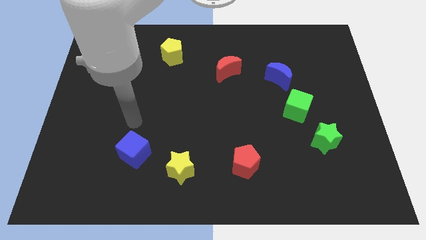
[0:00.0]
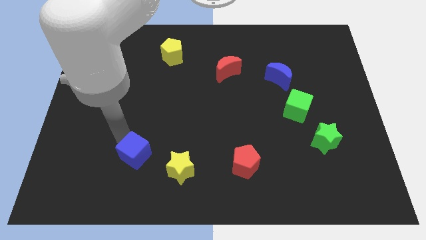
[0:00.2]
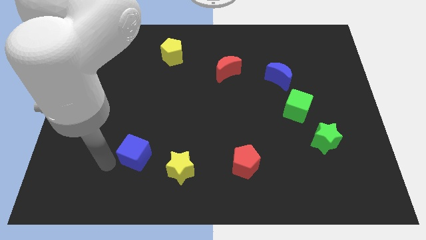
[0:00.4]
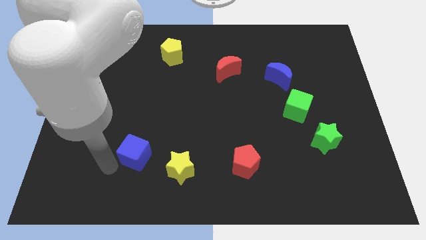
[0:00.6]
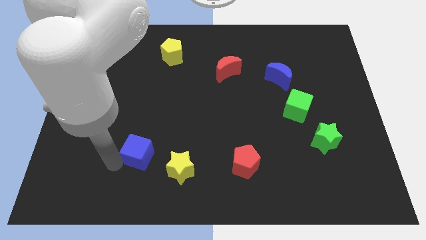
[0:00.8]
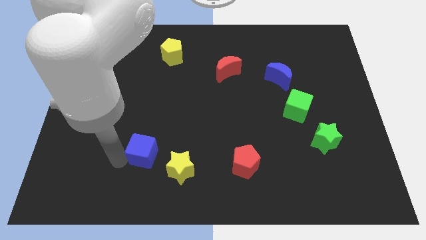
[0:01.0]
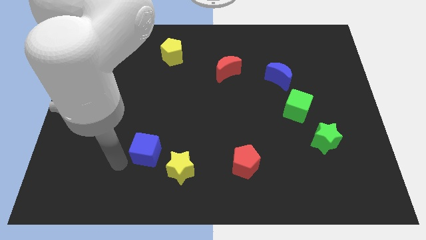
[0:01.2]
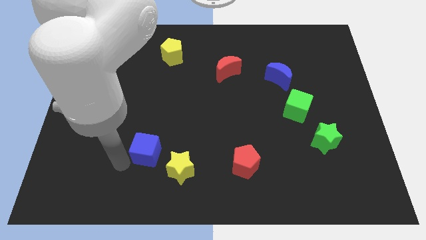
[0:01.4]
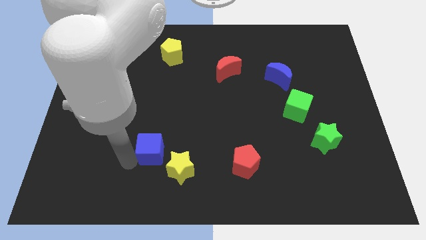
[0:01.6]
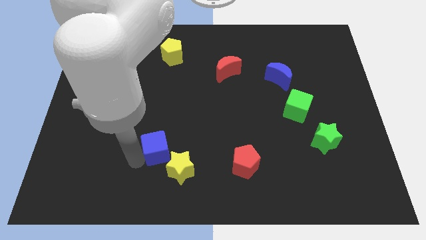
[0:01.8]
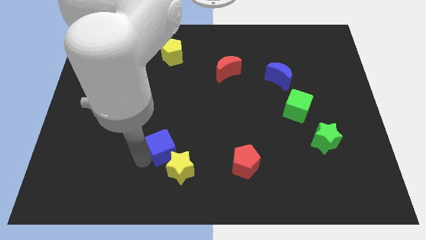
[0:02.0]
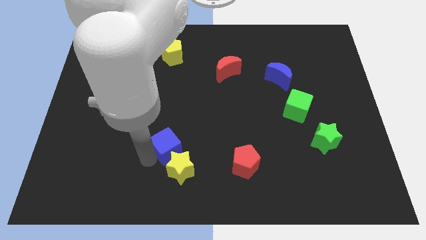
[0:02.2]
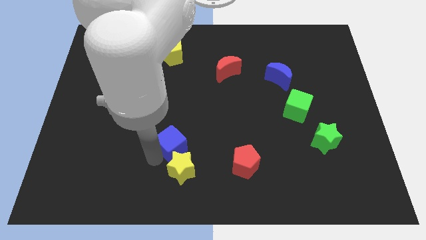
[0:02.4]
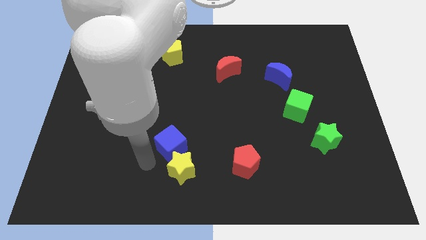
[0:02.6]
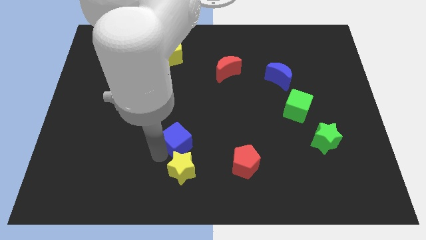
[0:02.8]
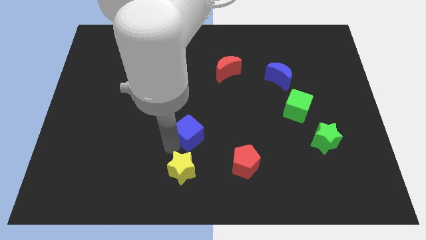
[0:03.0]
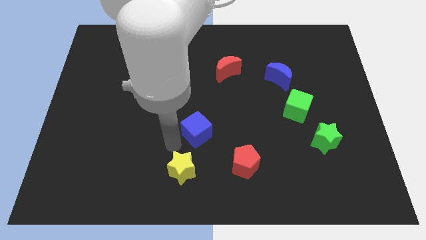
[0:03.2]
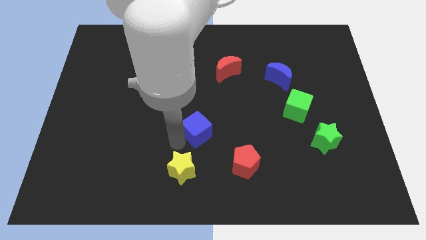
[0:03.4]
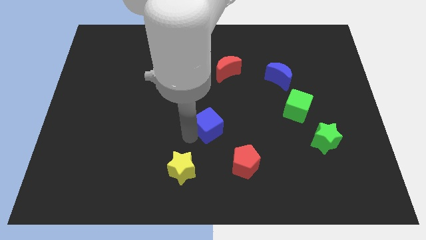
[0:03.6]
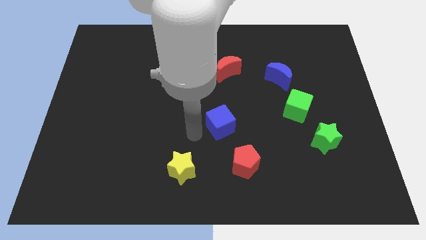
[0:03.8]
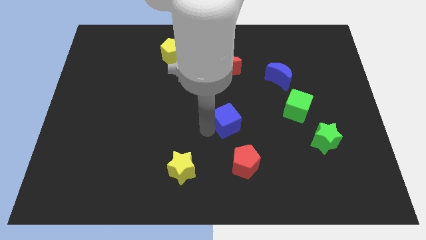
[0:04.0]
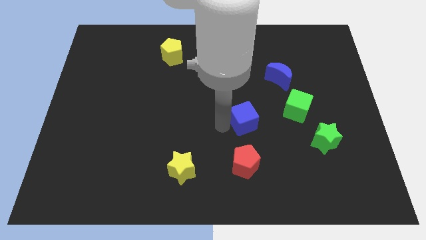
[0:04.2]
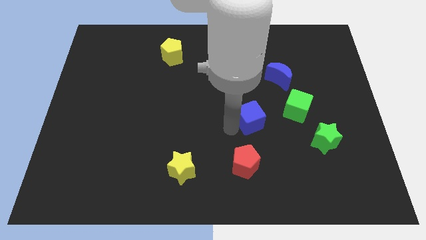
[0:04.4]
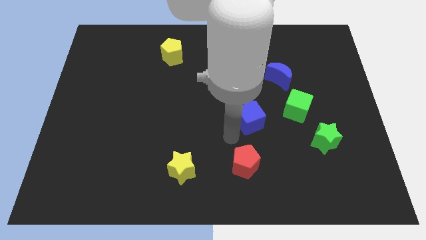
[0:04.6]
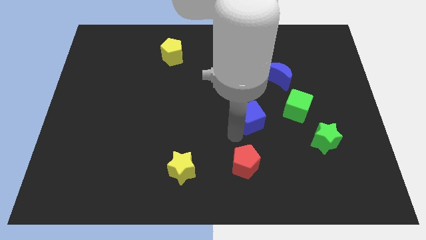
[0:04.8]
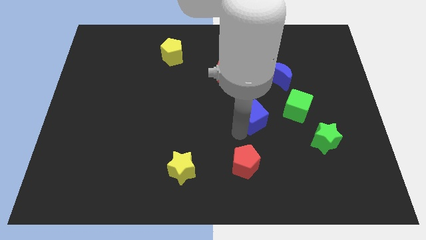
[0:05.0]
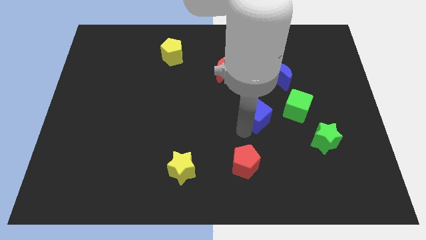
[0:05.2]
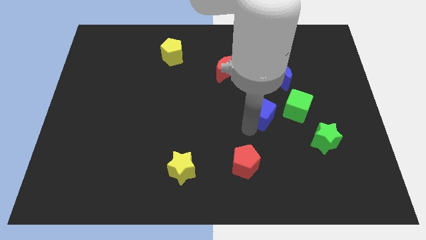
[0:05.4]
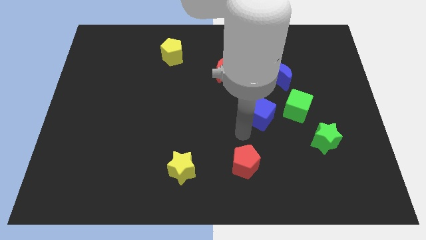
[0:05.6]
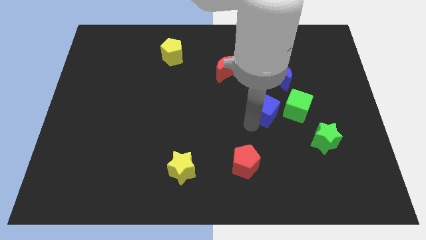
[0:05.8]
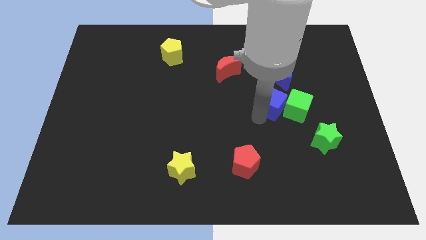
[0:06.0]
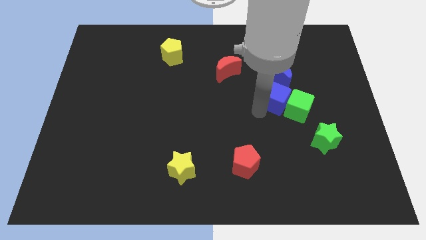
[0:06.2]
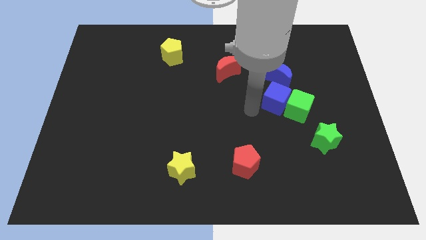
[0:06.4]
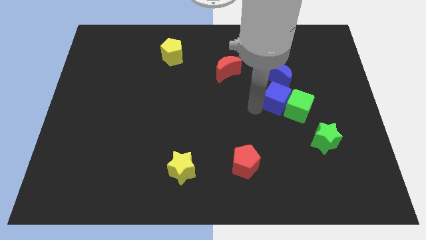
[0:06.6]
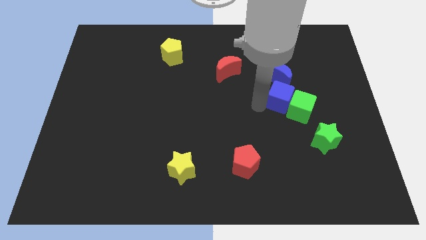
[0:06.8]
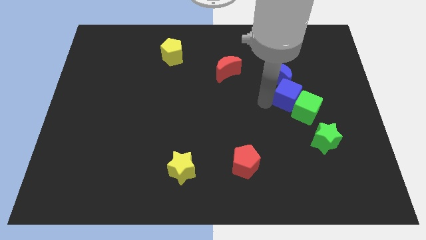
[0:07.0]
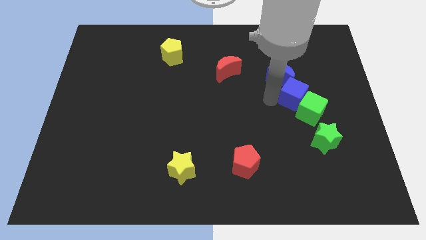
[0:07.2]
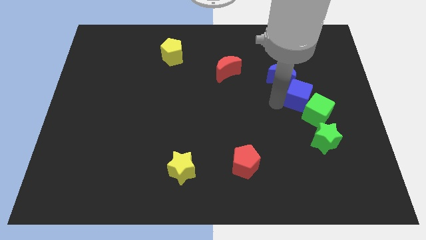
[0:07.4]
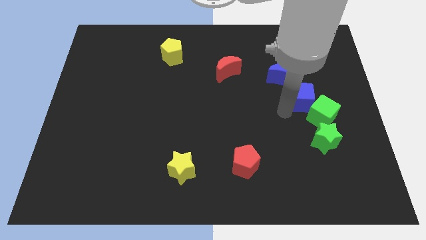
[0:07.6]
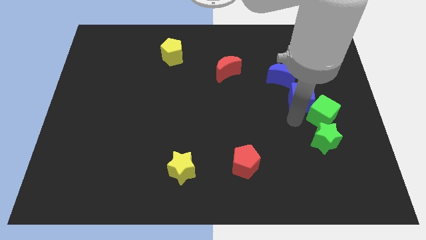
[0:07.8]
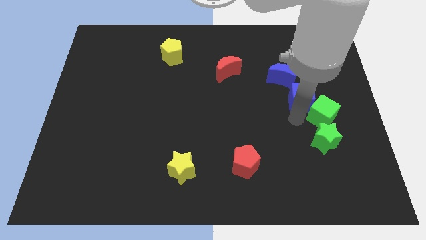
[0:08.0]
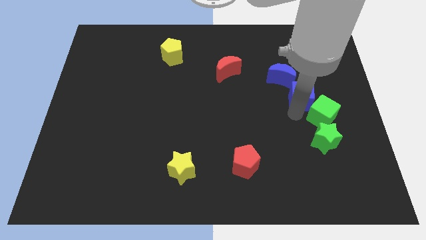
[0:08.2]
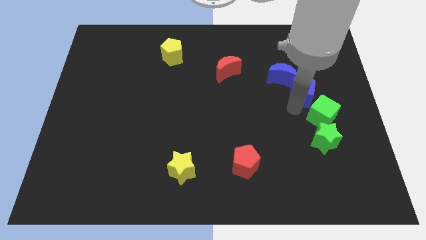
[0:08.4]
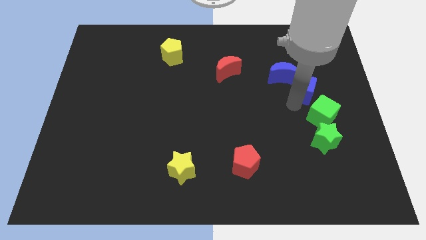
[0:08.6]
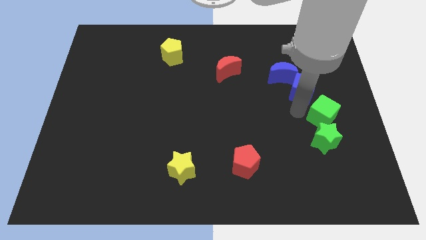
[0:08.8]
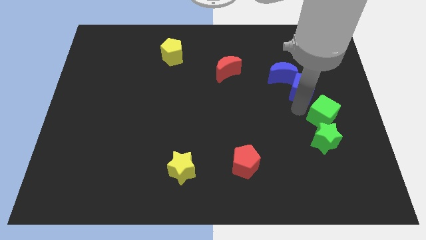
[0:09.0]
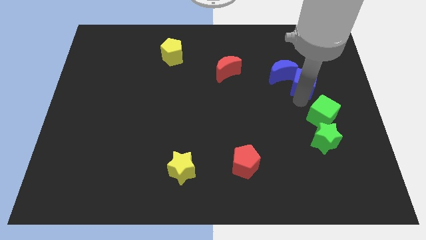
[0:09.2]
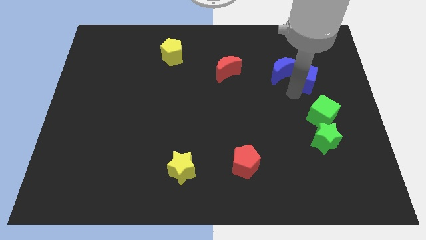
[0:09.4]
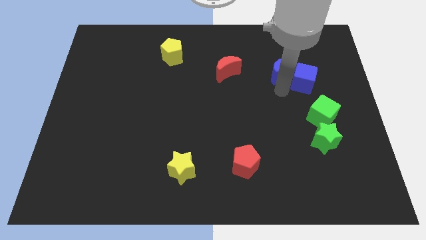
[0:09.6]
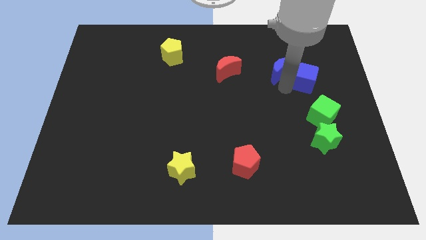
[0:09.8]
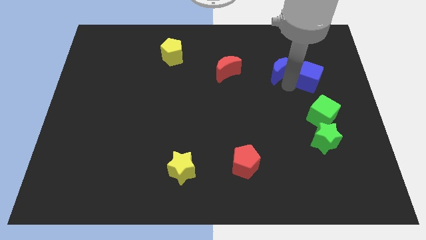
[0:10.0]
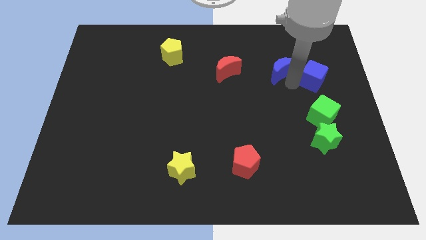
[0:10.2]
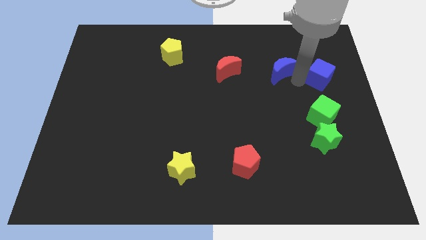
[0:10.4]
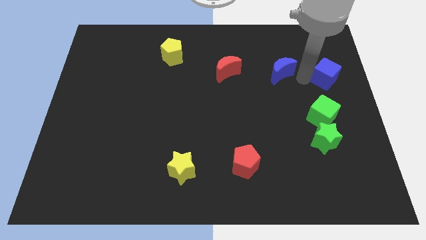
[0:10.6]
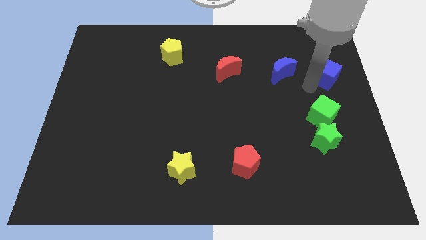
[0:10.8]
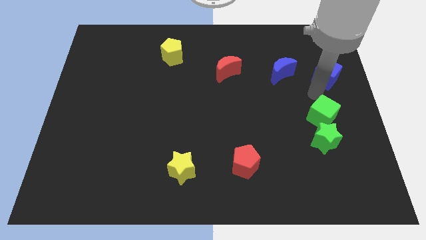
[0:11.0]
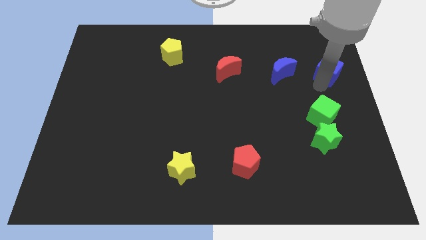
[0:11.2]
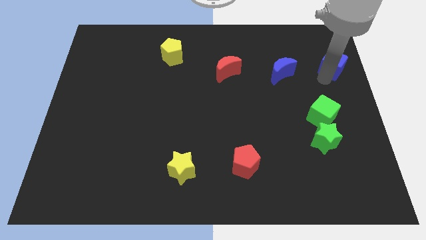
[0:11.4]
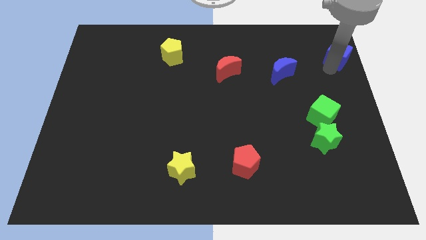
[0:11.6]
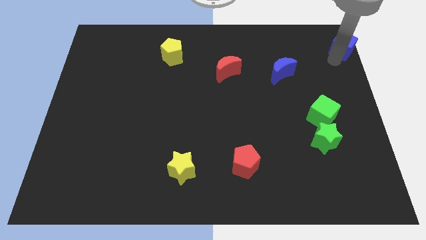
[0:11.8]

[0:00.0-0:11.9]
move the blue cube to the upper right corner

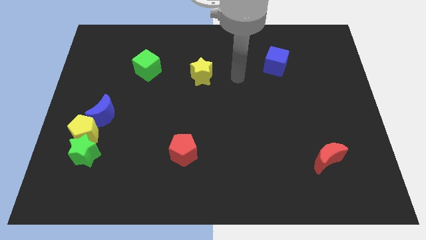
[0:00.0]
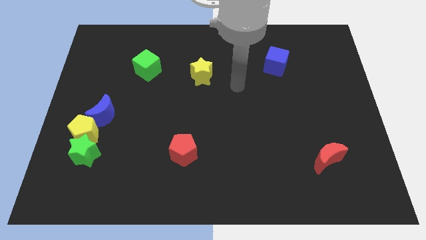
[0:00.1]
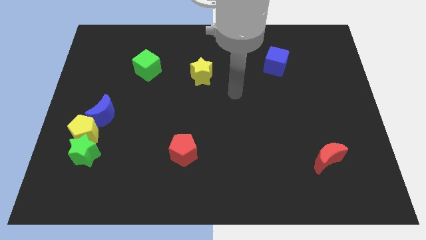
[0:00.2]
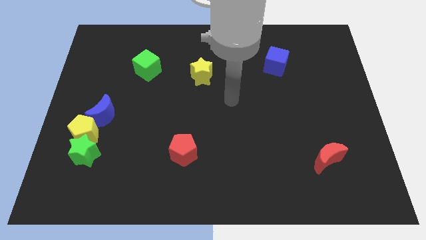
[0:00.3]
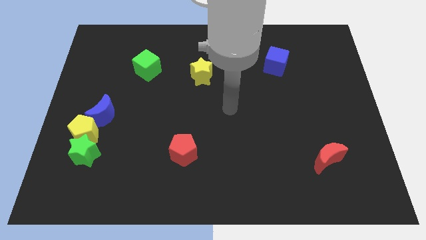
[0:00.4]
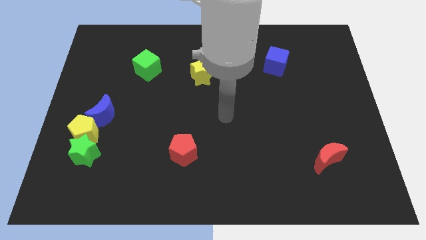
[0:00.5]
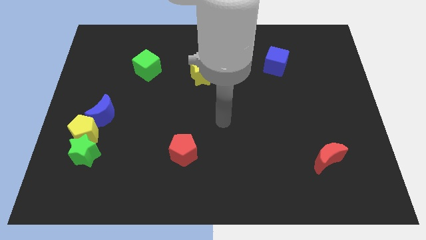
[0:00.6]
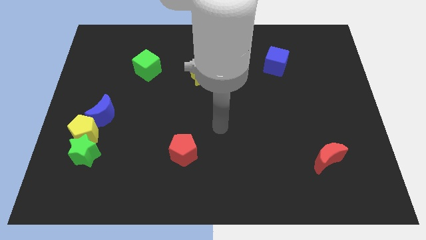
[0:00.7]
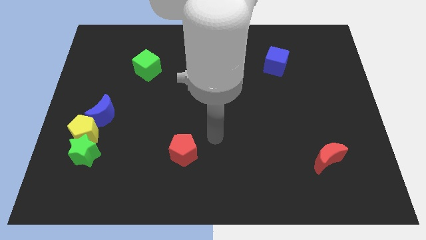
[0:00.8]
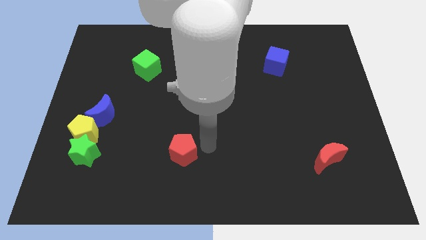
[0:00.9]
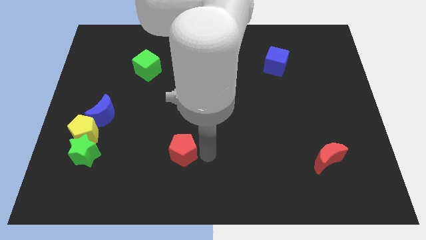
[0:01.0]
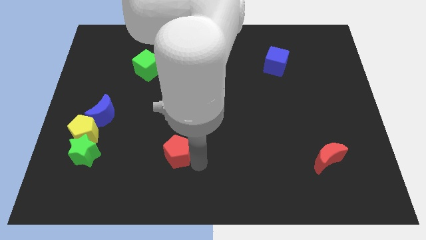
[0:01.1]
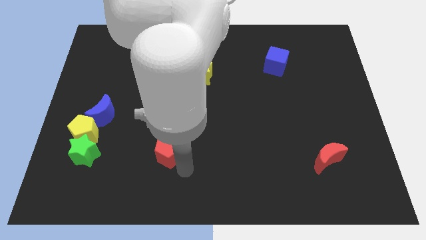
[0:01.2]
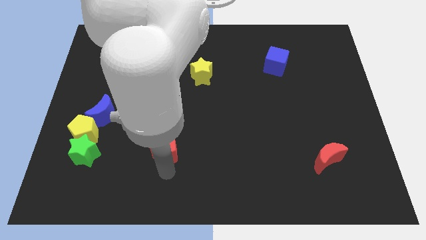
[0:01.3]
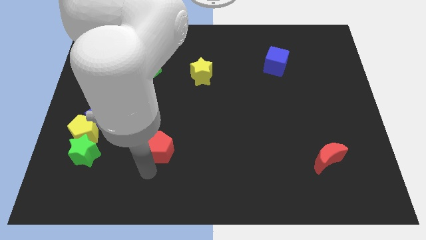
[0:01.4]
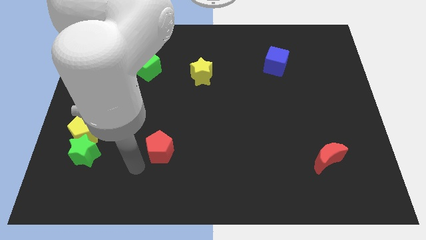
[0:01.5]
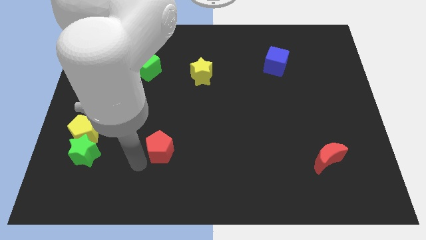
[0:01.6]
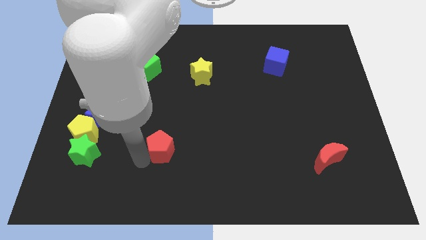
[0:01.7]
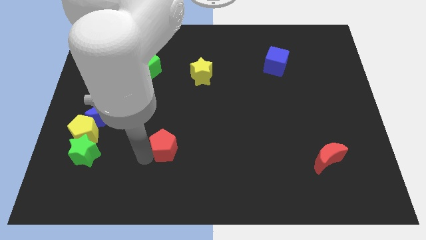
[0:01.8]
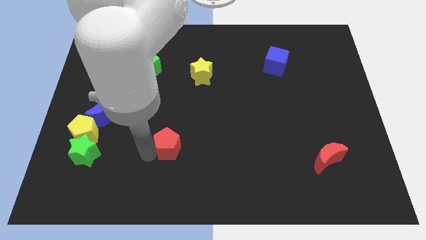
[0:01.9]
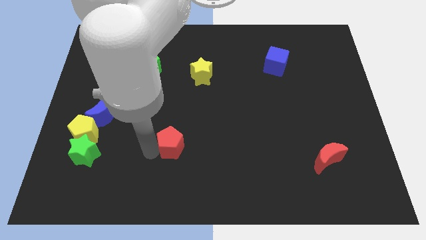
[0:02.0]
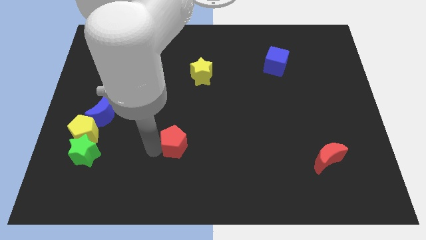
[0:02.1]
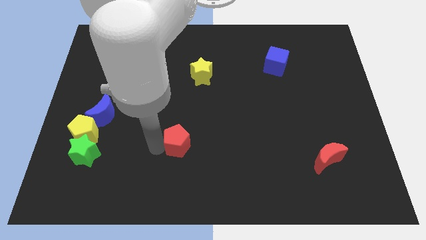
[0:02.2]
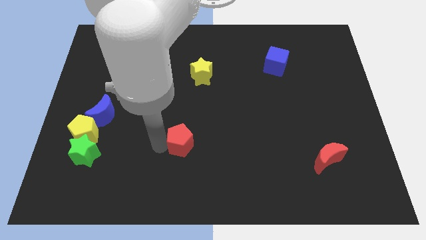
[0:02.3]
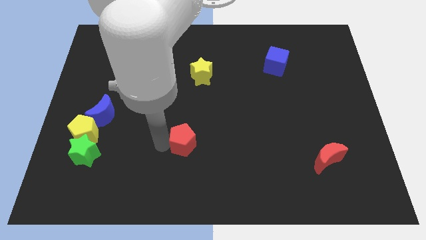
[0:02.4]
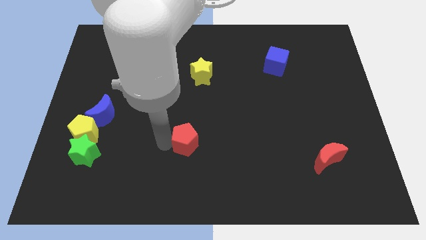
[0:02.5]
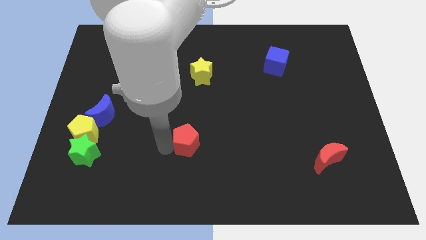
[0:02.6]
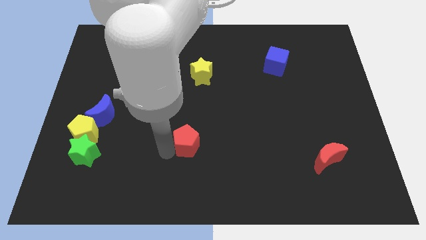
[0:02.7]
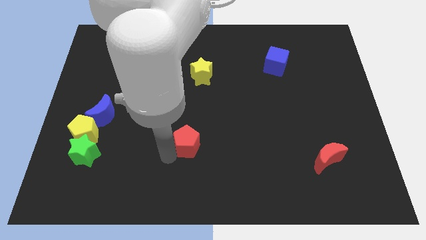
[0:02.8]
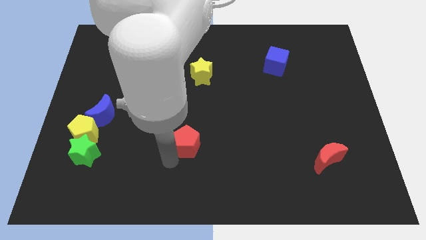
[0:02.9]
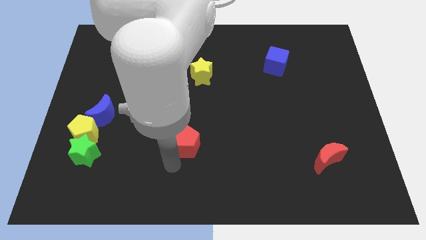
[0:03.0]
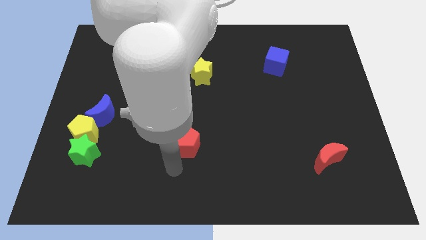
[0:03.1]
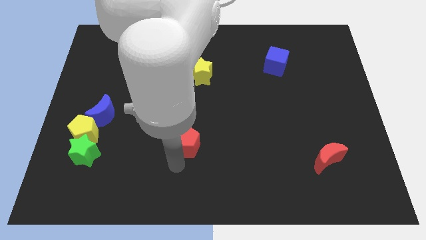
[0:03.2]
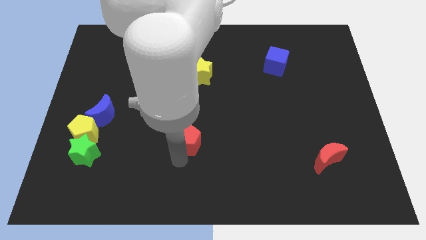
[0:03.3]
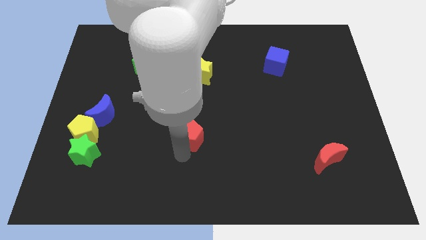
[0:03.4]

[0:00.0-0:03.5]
put the red pentagon to the center of the board
